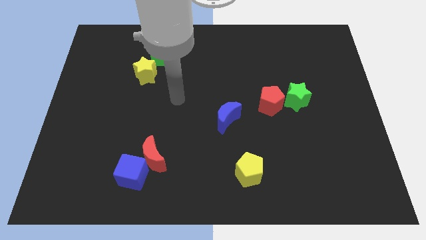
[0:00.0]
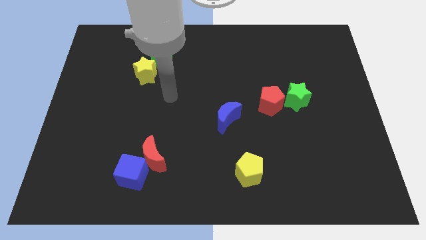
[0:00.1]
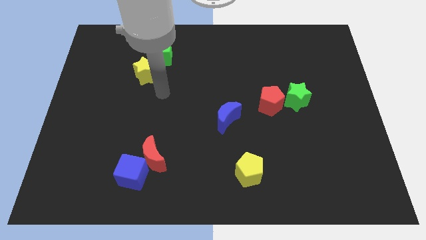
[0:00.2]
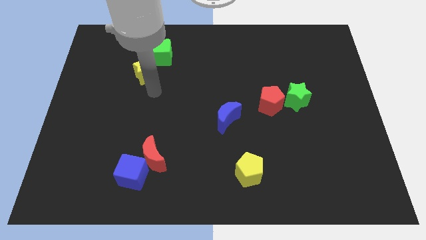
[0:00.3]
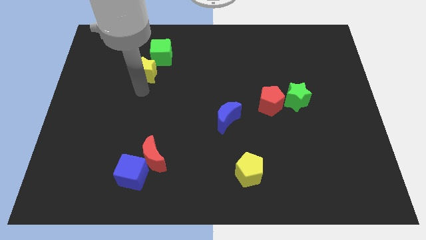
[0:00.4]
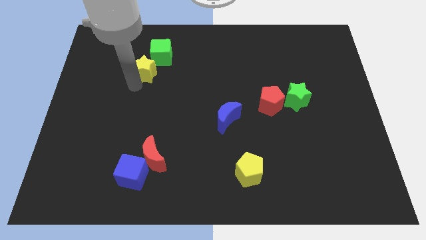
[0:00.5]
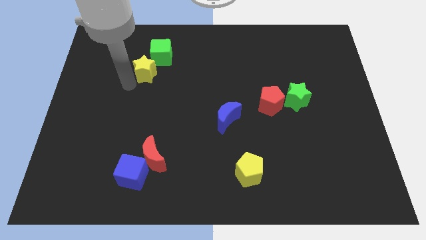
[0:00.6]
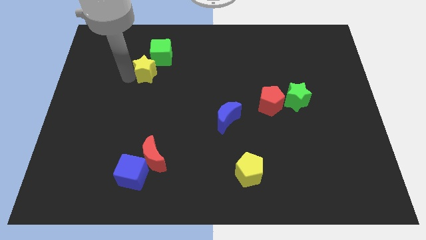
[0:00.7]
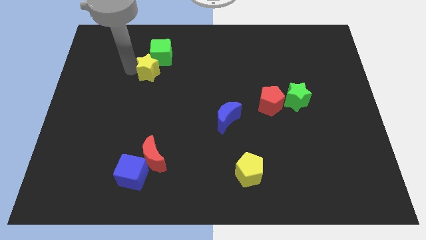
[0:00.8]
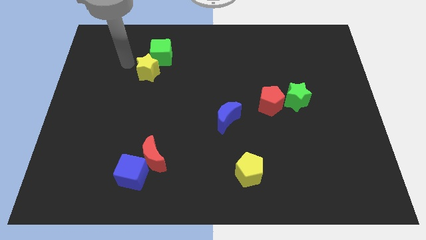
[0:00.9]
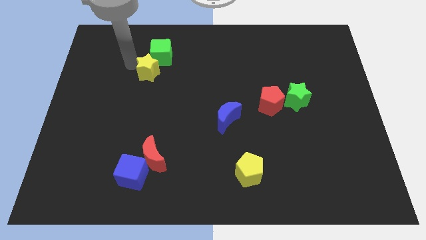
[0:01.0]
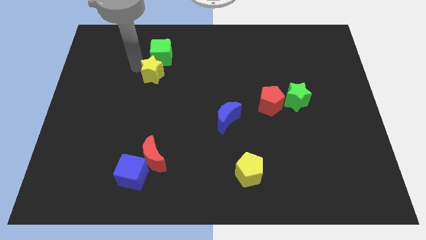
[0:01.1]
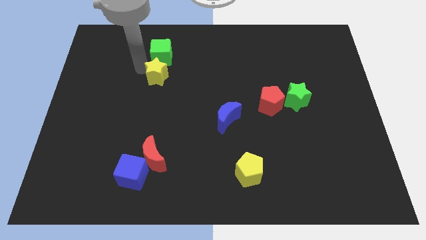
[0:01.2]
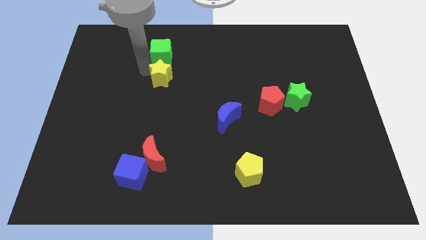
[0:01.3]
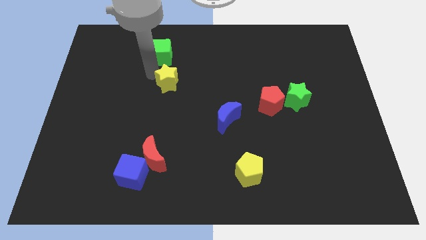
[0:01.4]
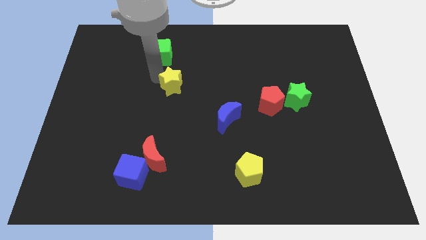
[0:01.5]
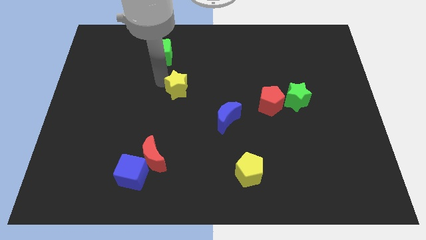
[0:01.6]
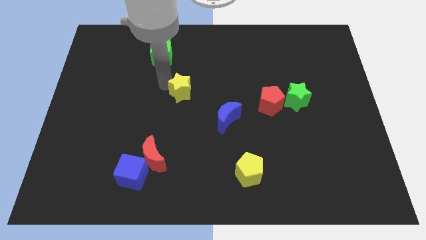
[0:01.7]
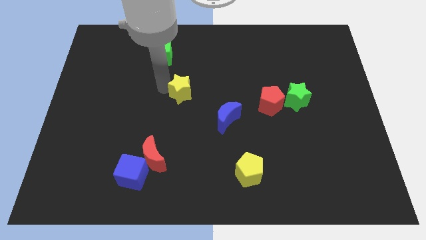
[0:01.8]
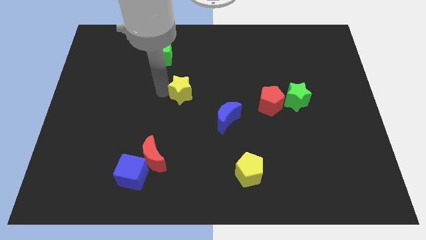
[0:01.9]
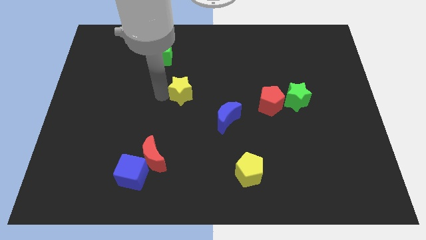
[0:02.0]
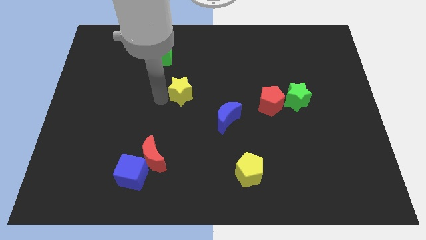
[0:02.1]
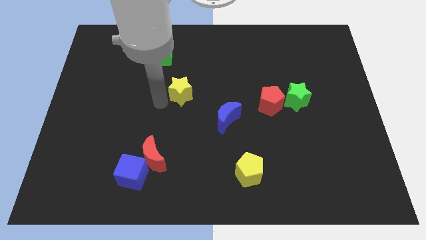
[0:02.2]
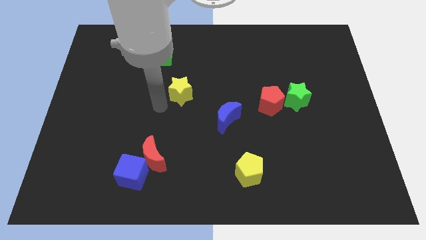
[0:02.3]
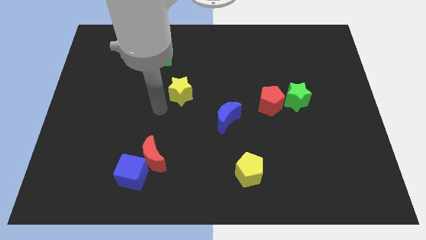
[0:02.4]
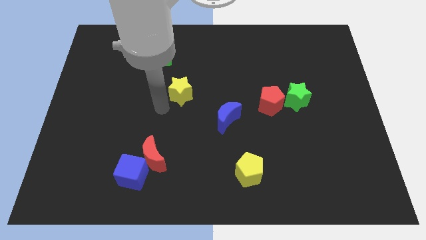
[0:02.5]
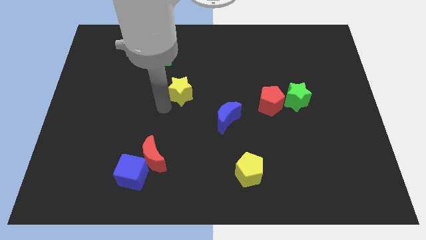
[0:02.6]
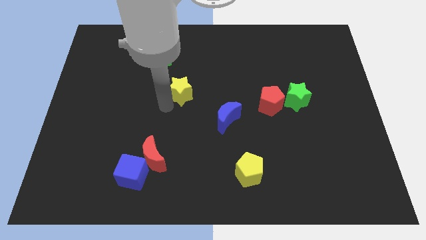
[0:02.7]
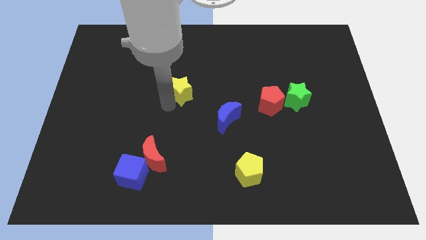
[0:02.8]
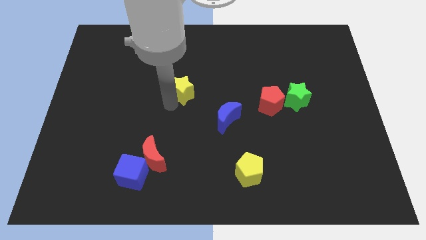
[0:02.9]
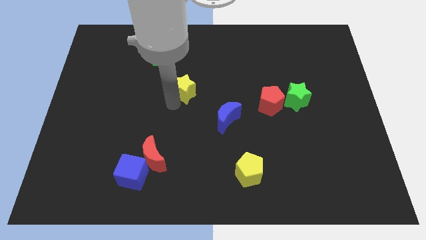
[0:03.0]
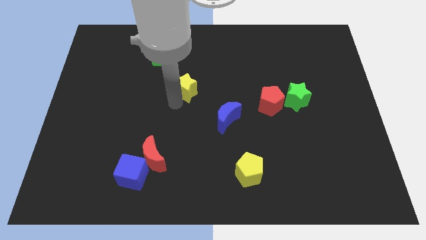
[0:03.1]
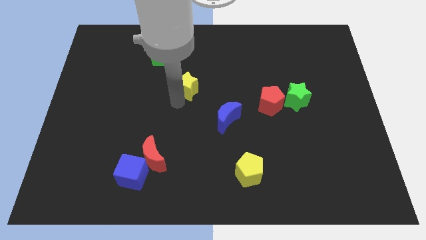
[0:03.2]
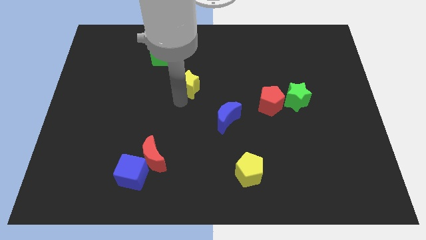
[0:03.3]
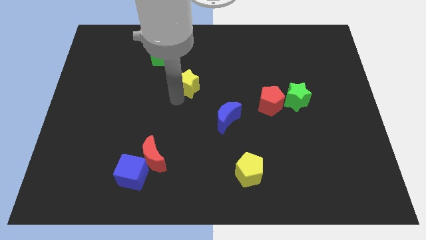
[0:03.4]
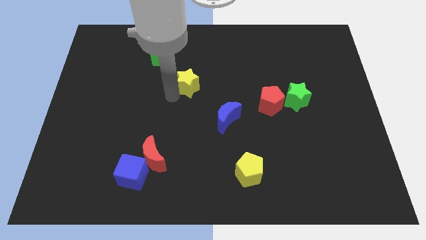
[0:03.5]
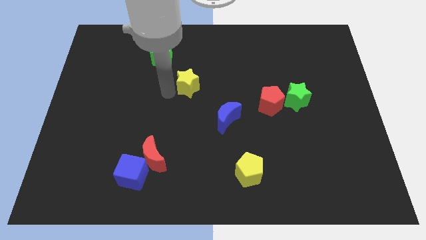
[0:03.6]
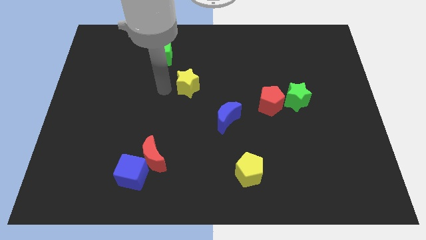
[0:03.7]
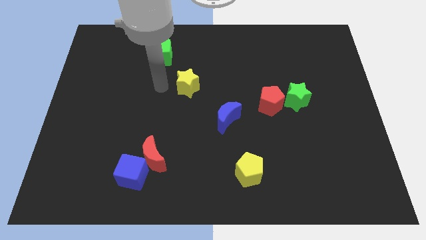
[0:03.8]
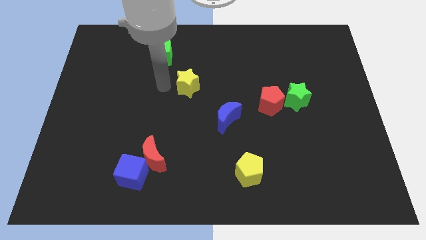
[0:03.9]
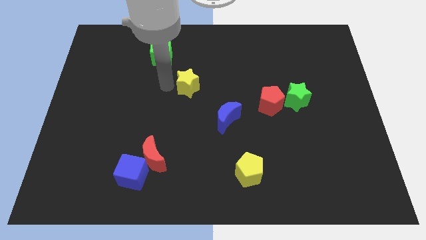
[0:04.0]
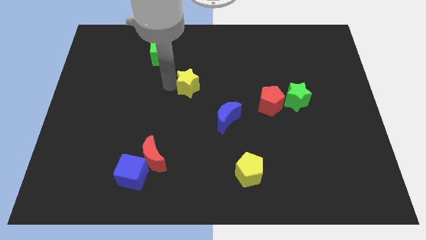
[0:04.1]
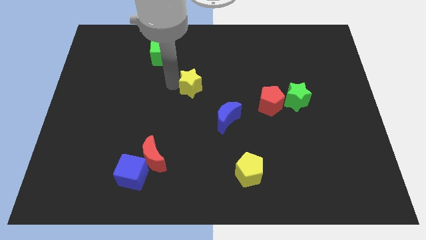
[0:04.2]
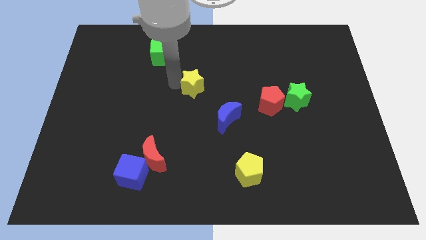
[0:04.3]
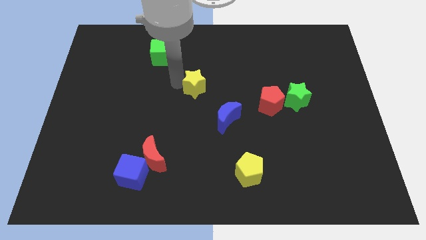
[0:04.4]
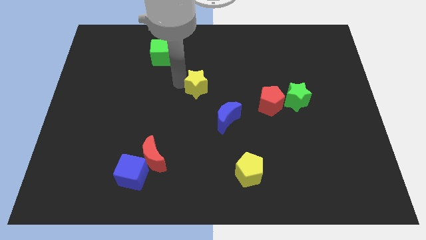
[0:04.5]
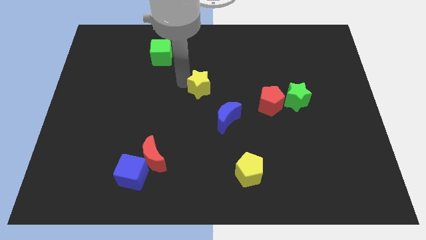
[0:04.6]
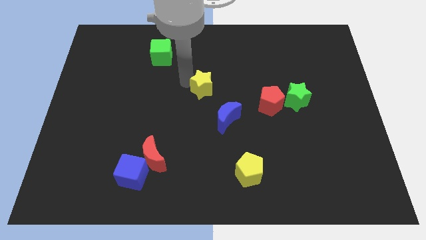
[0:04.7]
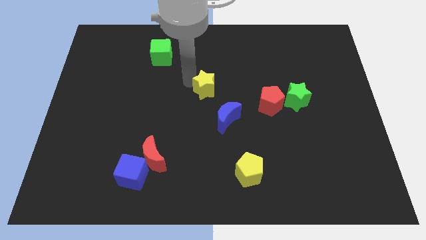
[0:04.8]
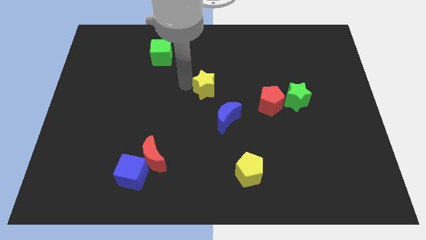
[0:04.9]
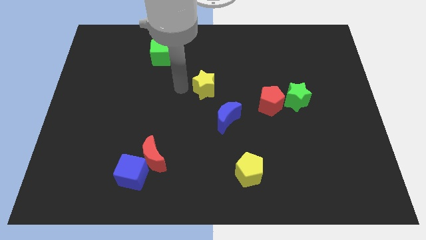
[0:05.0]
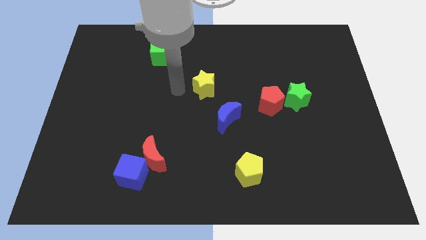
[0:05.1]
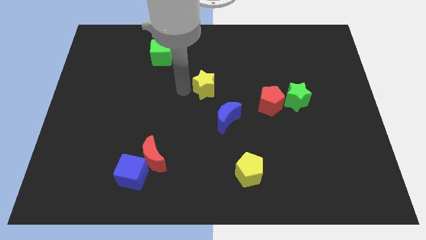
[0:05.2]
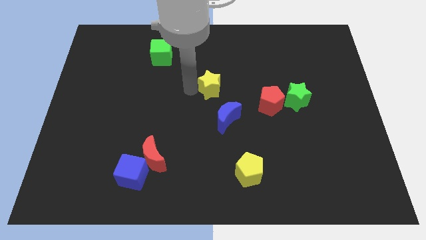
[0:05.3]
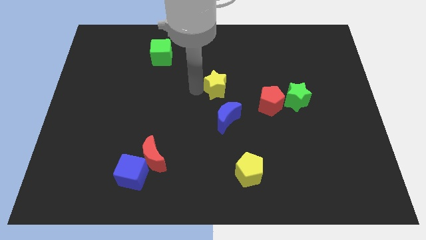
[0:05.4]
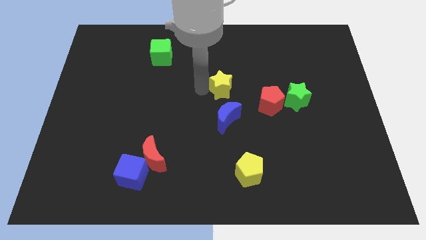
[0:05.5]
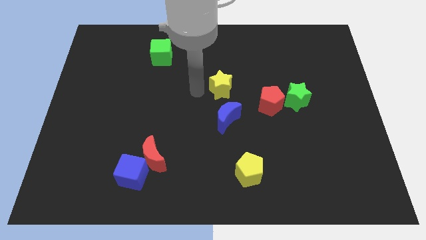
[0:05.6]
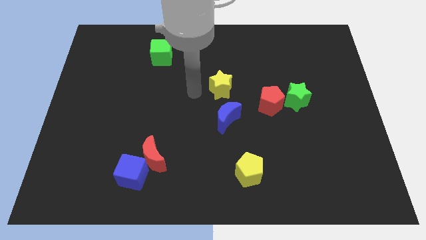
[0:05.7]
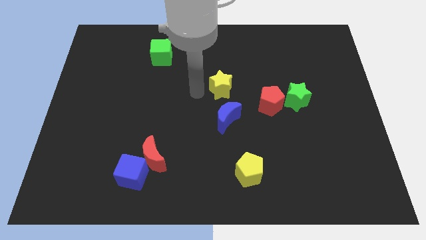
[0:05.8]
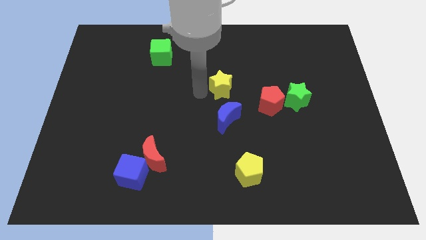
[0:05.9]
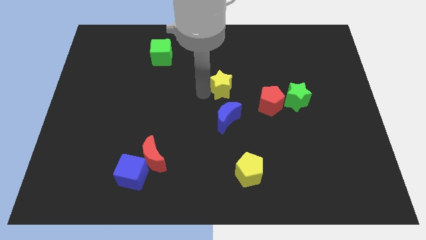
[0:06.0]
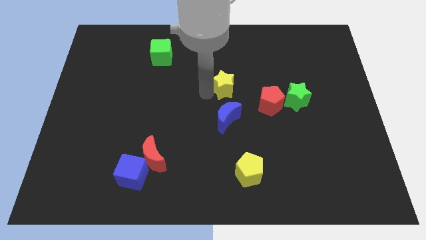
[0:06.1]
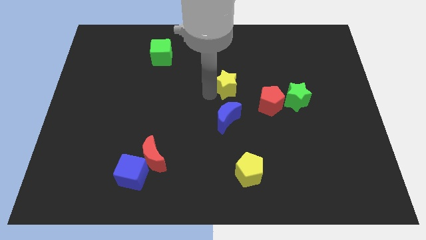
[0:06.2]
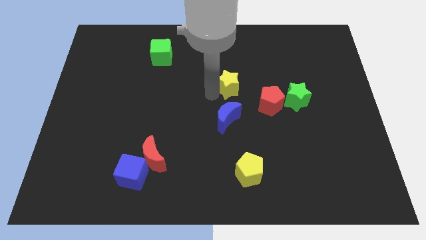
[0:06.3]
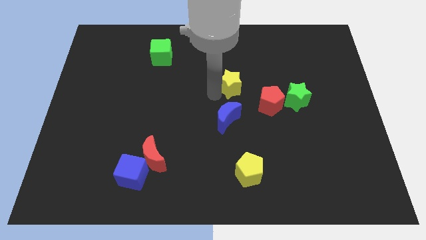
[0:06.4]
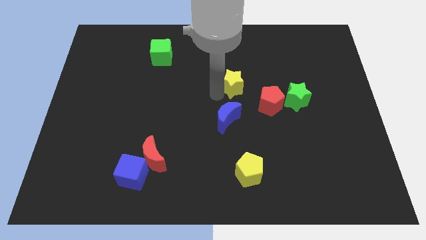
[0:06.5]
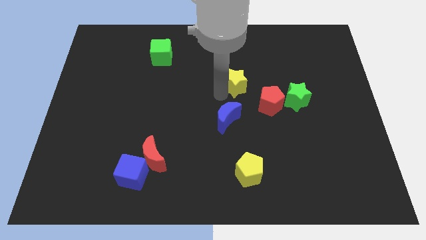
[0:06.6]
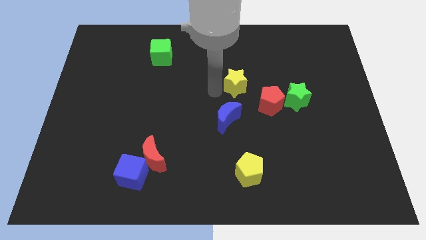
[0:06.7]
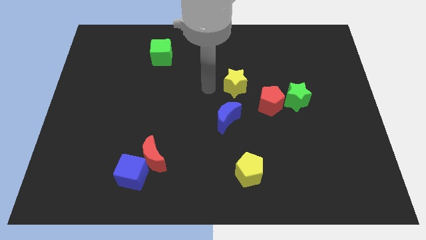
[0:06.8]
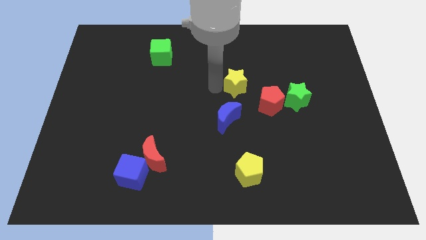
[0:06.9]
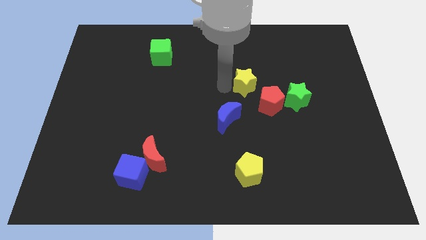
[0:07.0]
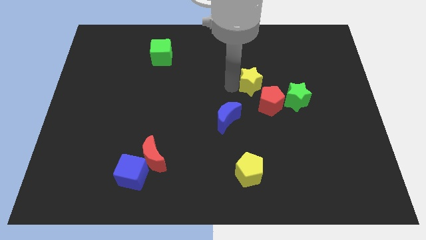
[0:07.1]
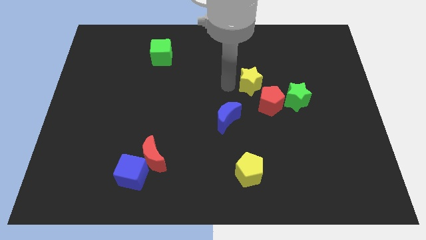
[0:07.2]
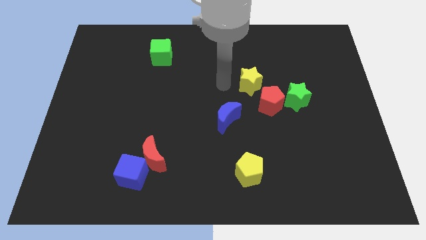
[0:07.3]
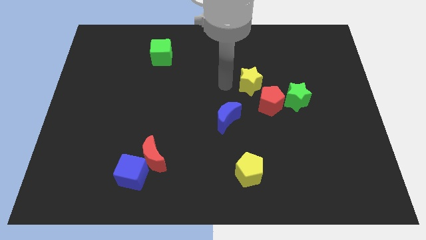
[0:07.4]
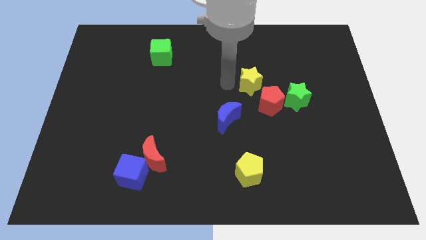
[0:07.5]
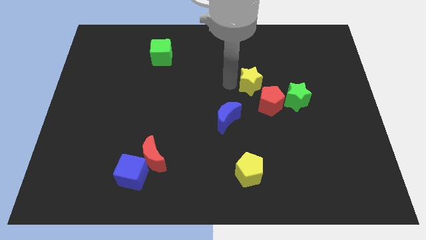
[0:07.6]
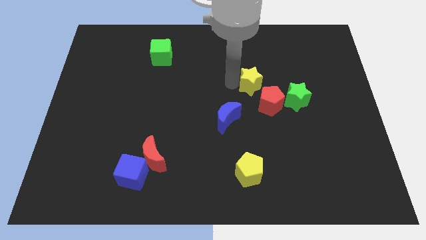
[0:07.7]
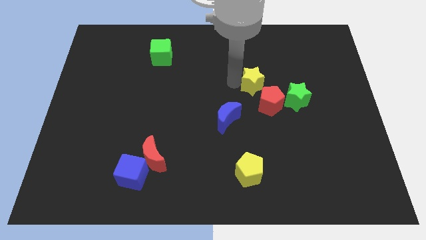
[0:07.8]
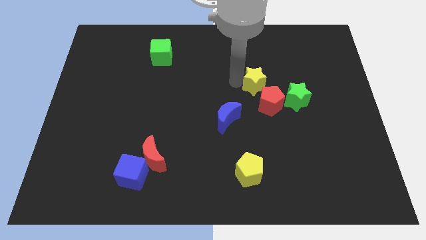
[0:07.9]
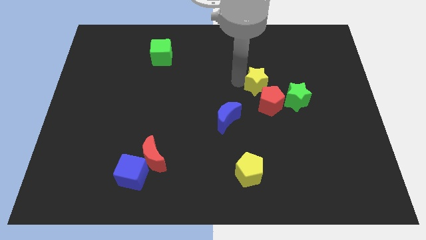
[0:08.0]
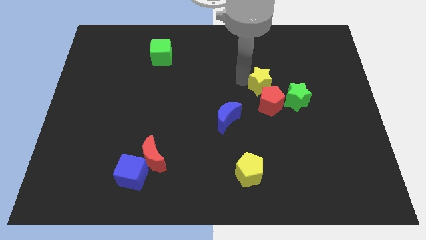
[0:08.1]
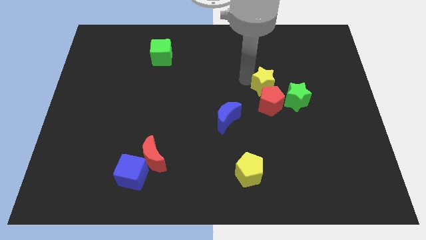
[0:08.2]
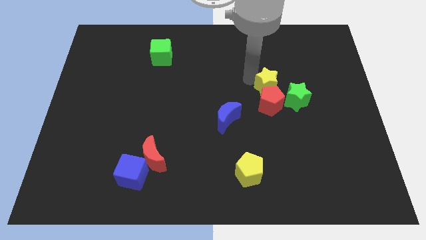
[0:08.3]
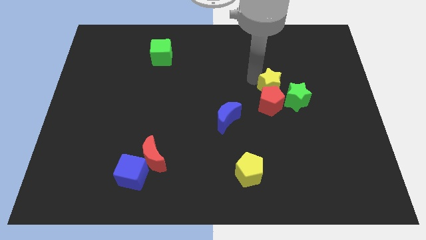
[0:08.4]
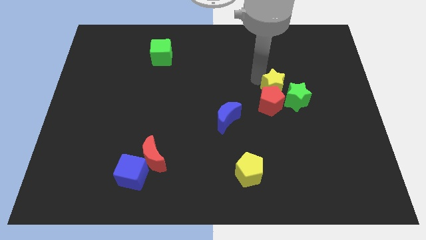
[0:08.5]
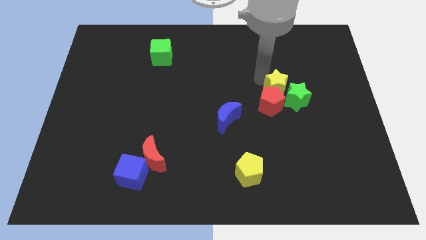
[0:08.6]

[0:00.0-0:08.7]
put the yellow star towards the green star
